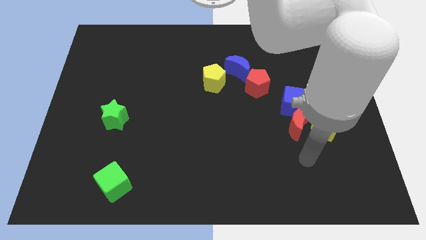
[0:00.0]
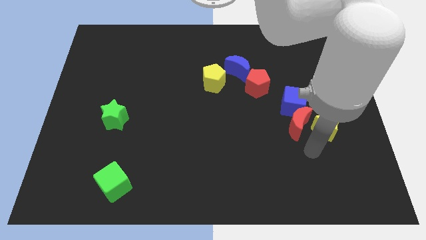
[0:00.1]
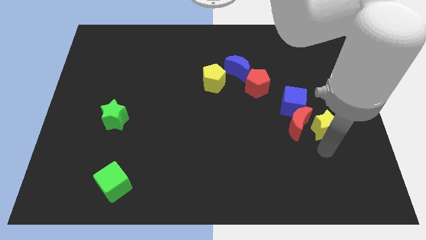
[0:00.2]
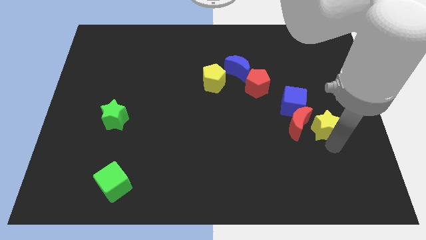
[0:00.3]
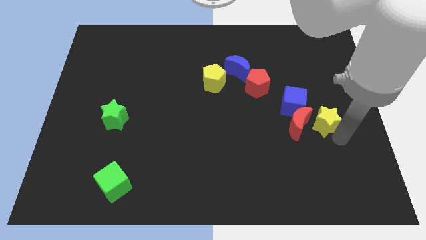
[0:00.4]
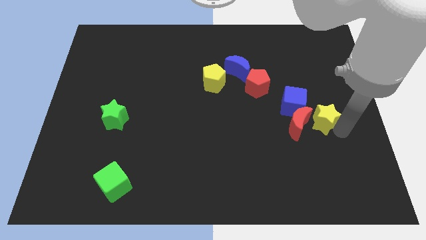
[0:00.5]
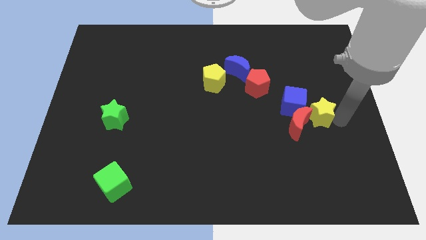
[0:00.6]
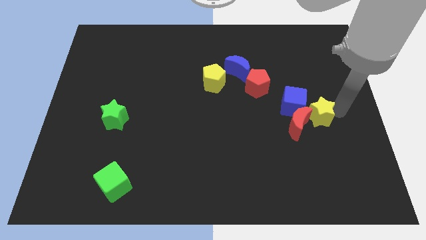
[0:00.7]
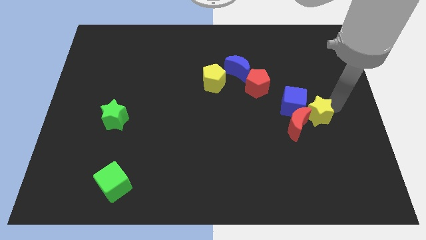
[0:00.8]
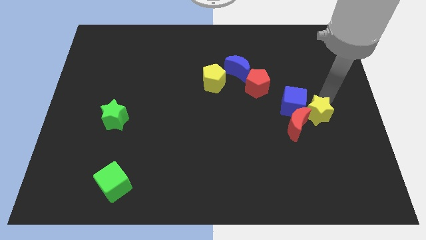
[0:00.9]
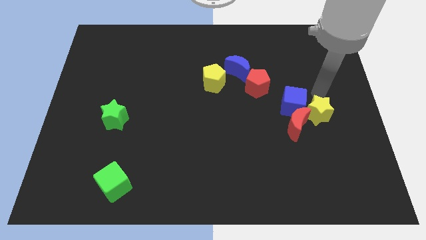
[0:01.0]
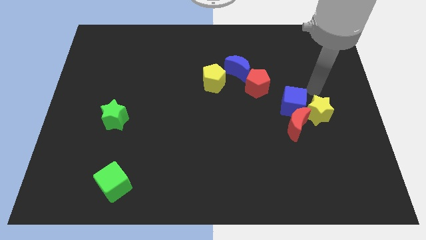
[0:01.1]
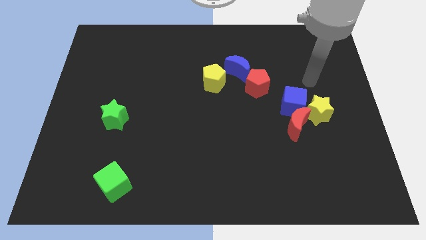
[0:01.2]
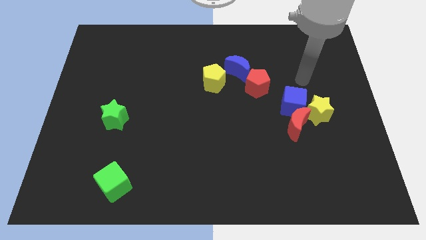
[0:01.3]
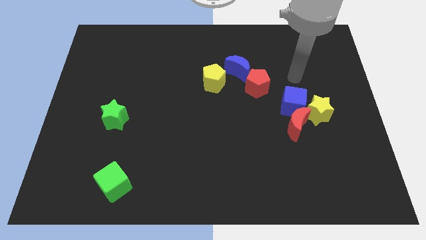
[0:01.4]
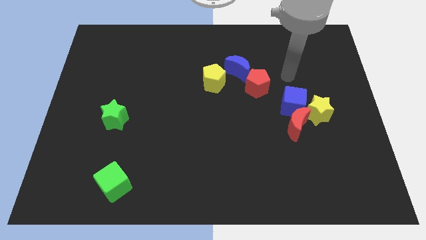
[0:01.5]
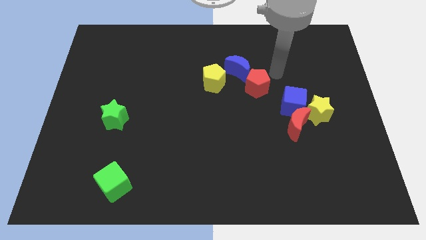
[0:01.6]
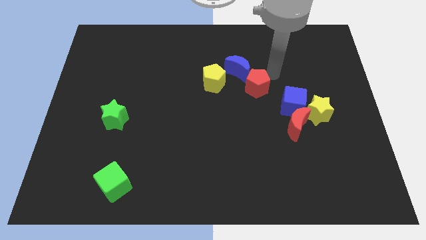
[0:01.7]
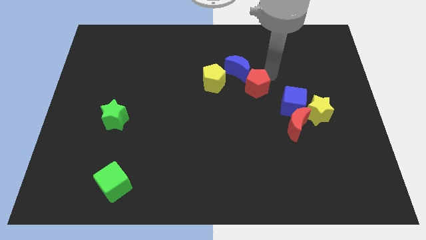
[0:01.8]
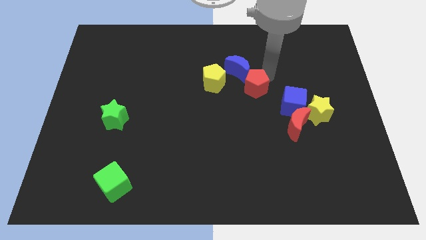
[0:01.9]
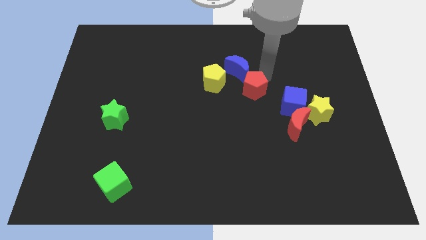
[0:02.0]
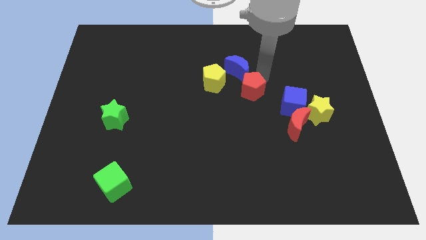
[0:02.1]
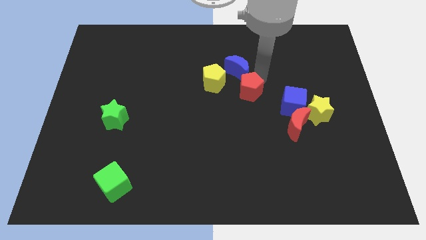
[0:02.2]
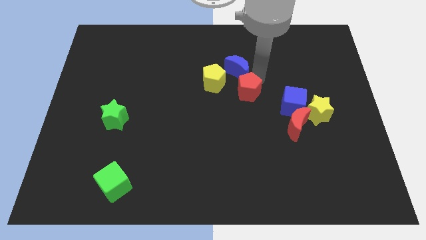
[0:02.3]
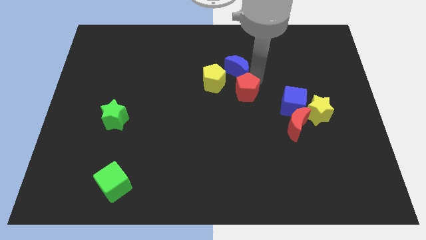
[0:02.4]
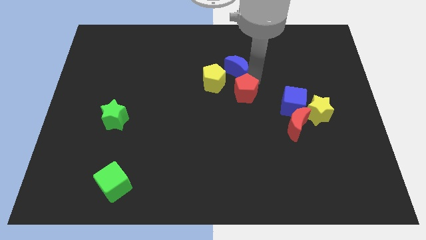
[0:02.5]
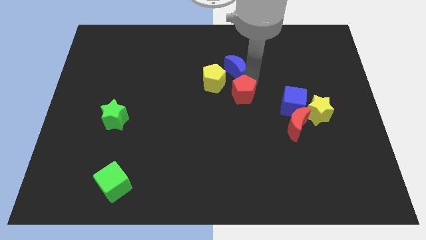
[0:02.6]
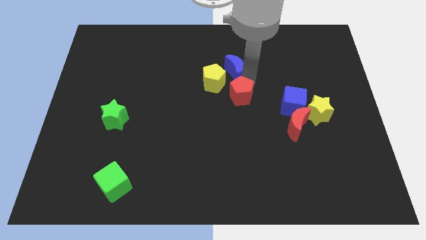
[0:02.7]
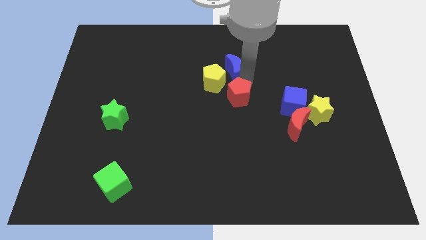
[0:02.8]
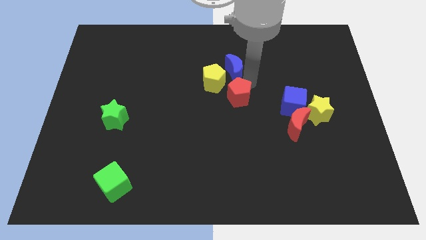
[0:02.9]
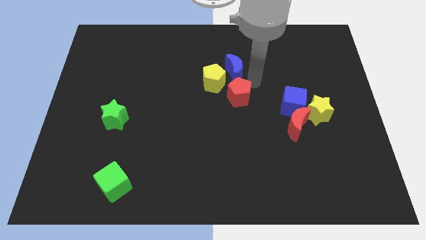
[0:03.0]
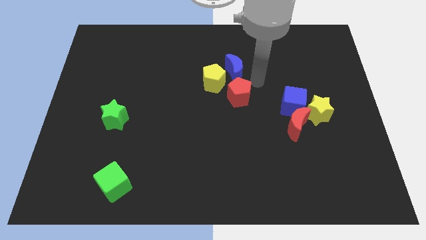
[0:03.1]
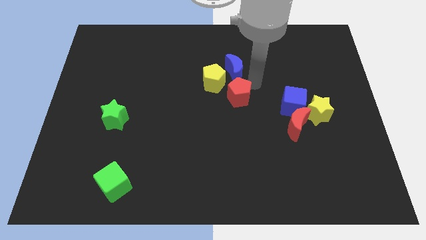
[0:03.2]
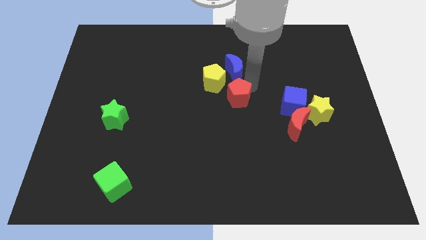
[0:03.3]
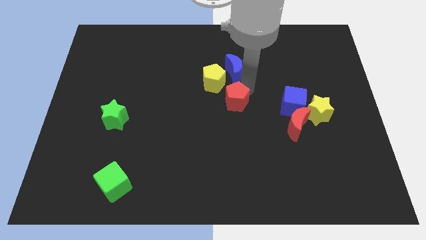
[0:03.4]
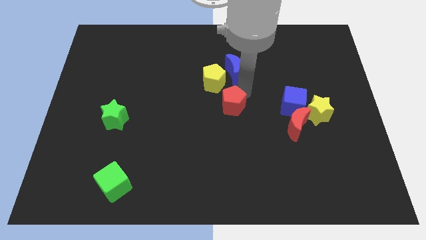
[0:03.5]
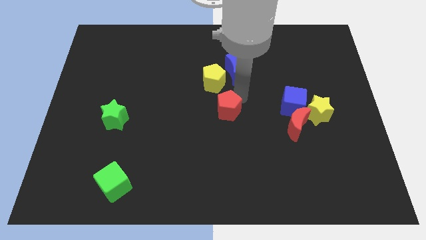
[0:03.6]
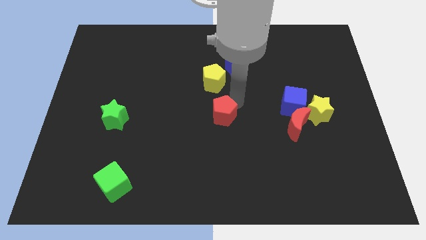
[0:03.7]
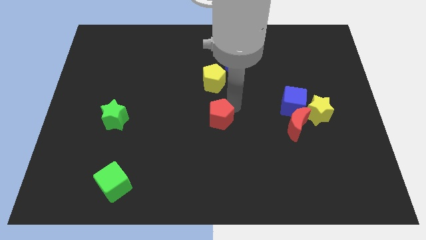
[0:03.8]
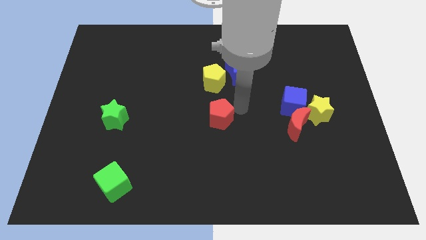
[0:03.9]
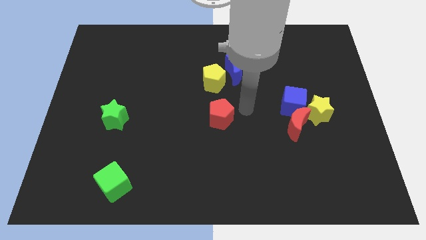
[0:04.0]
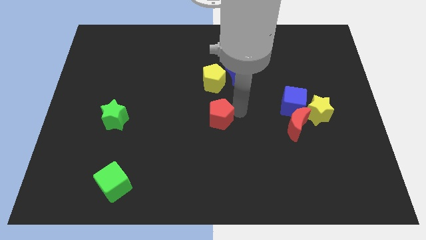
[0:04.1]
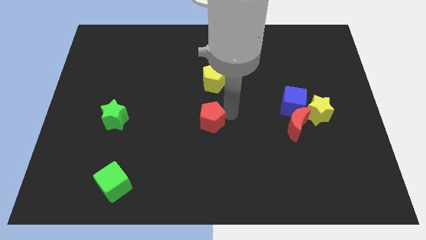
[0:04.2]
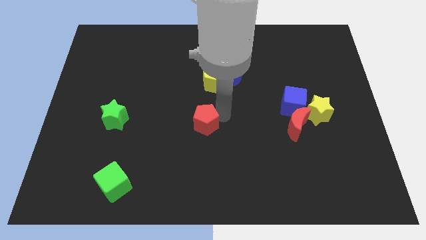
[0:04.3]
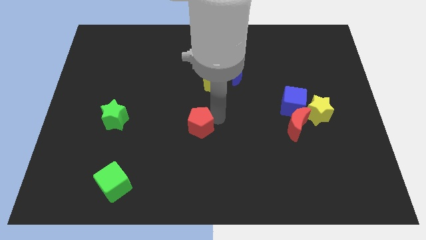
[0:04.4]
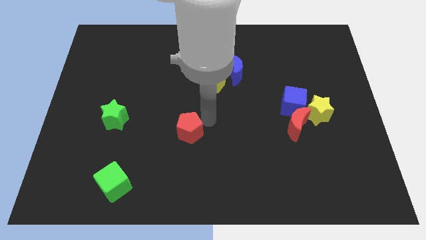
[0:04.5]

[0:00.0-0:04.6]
move the red pentagon down and left

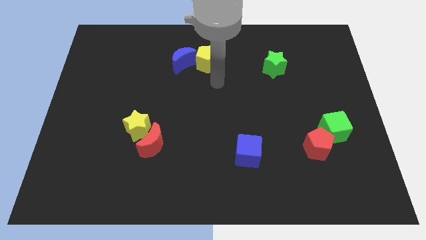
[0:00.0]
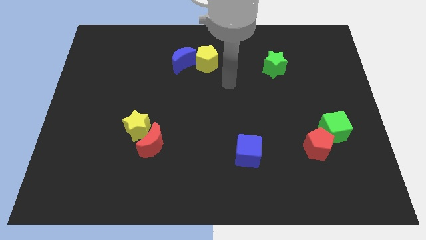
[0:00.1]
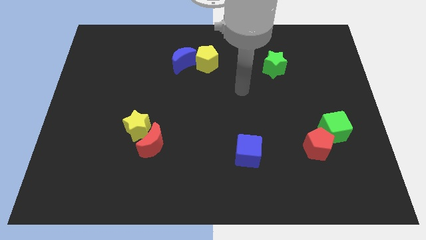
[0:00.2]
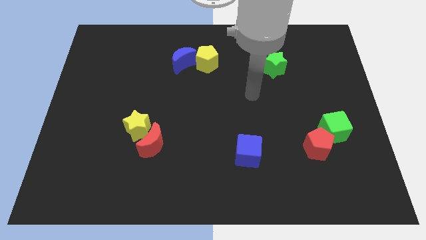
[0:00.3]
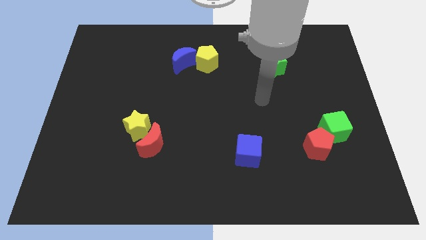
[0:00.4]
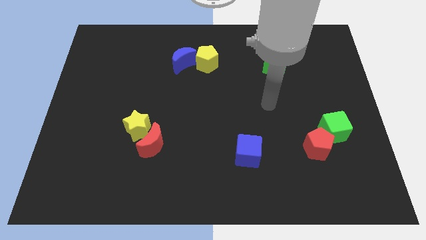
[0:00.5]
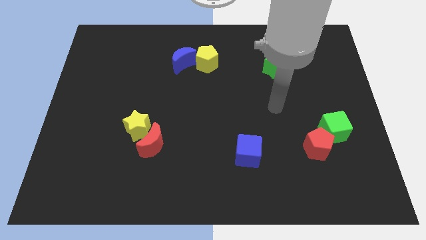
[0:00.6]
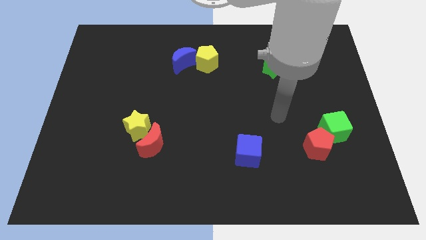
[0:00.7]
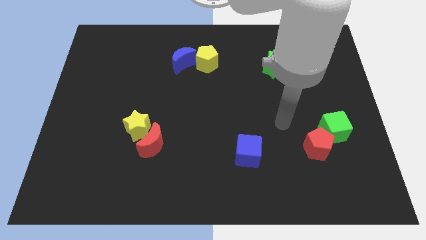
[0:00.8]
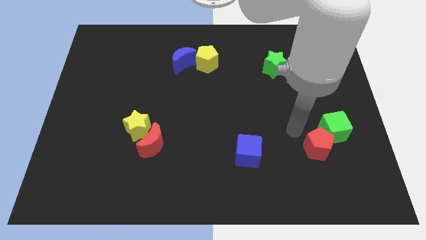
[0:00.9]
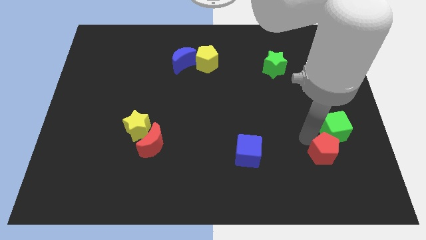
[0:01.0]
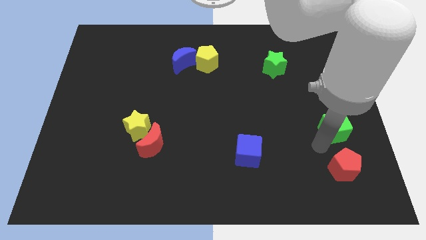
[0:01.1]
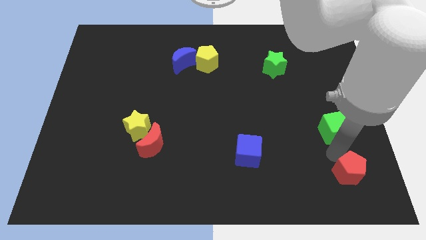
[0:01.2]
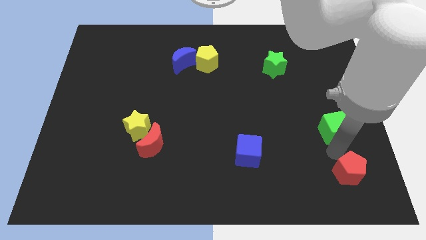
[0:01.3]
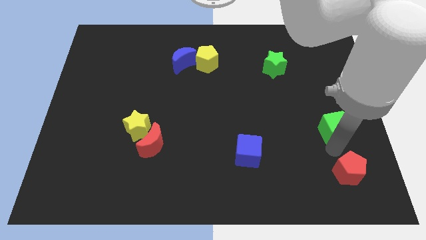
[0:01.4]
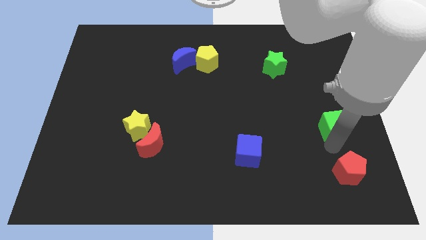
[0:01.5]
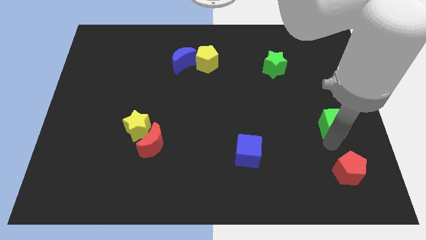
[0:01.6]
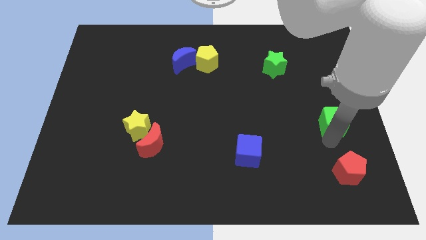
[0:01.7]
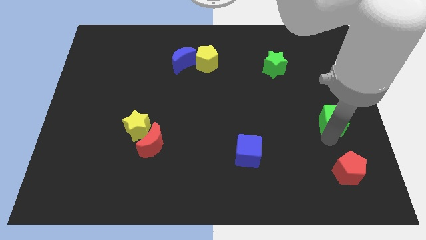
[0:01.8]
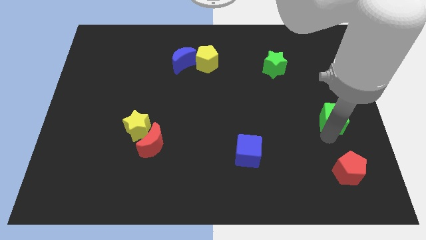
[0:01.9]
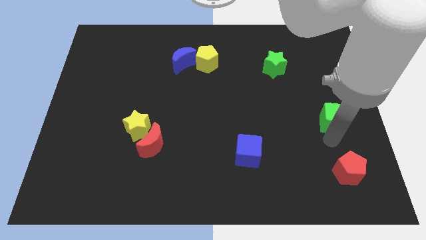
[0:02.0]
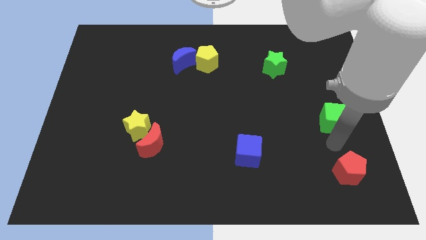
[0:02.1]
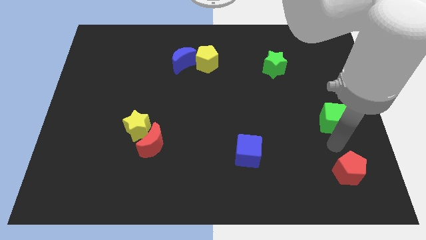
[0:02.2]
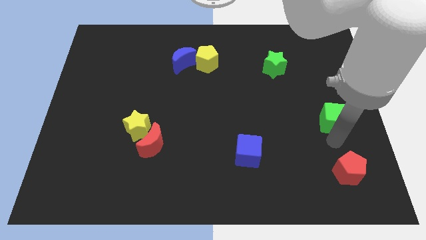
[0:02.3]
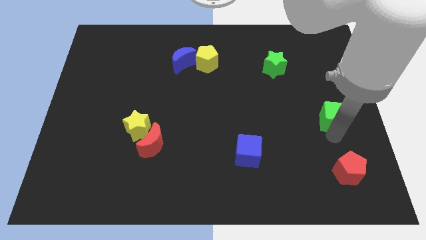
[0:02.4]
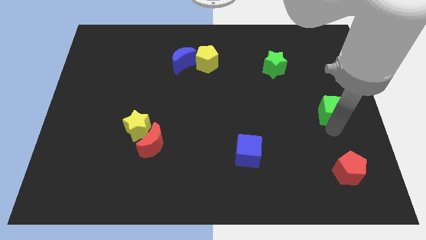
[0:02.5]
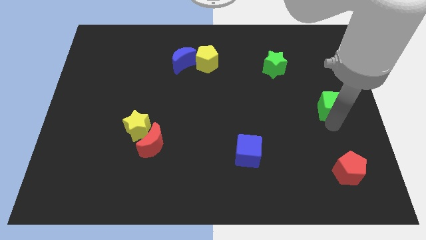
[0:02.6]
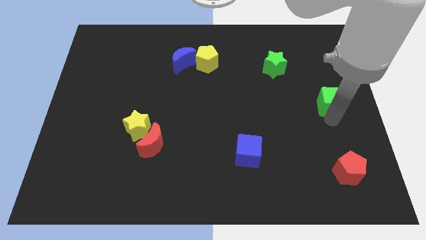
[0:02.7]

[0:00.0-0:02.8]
slightly push the green cube upwards

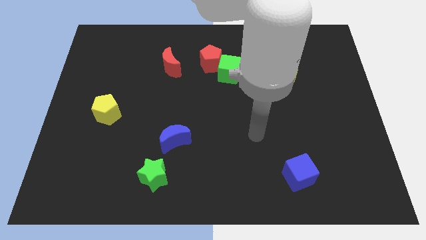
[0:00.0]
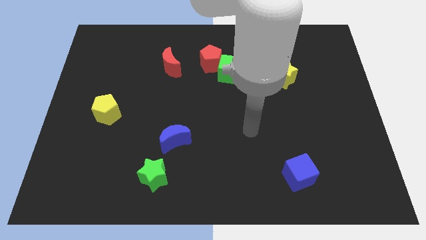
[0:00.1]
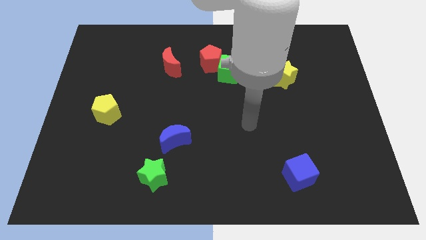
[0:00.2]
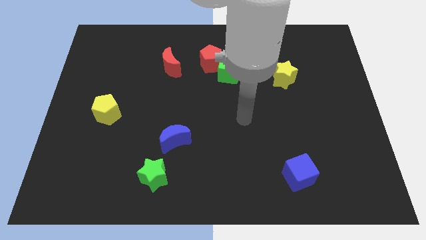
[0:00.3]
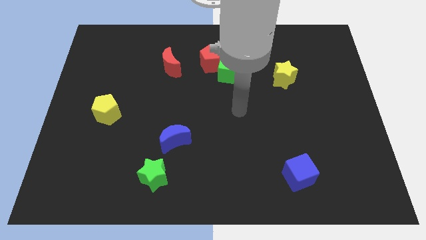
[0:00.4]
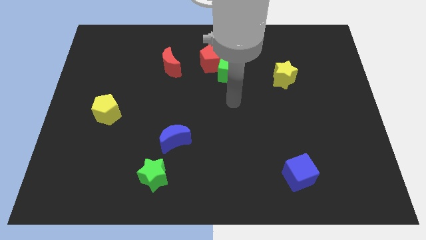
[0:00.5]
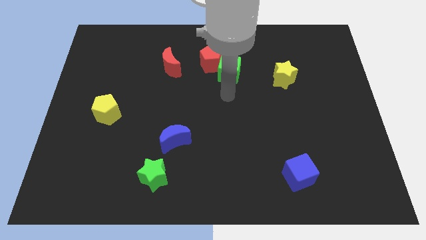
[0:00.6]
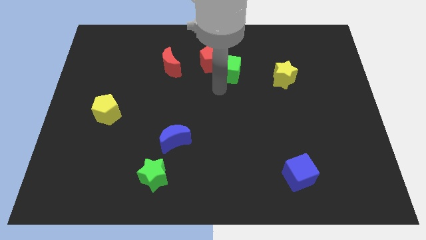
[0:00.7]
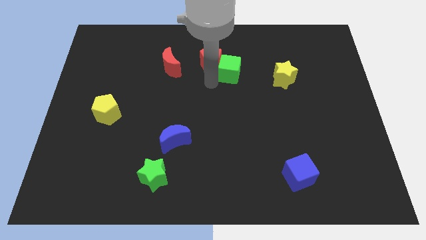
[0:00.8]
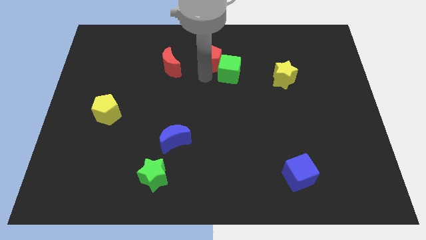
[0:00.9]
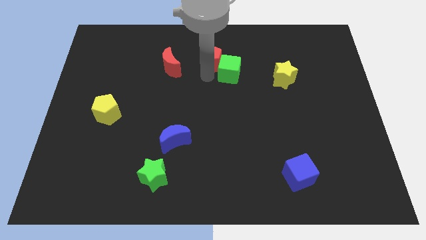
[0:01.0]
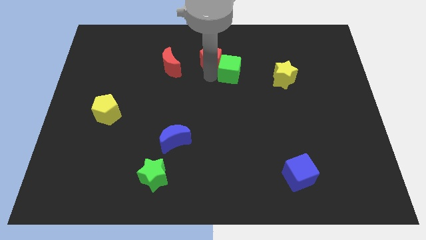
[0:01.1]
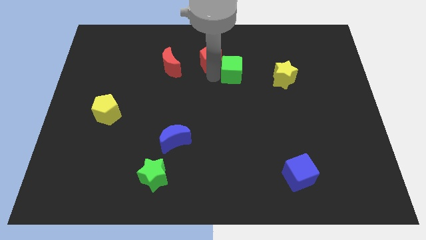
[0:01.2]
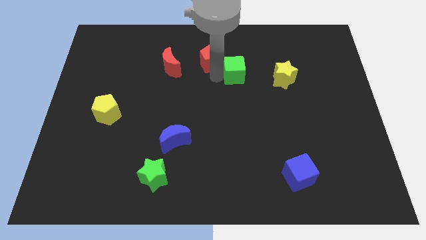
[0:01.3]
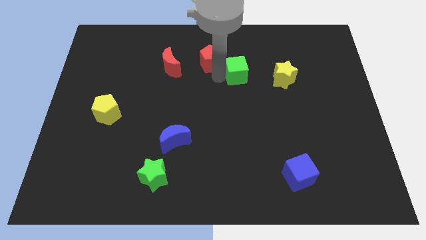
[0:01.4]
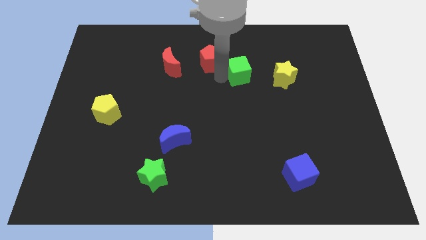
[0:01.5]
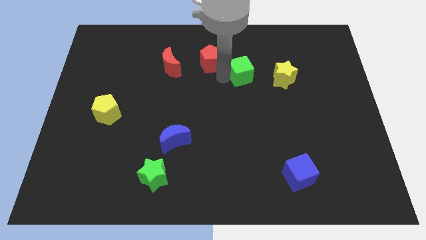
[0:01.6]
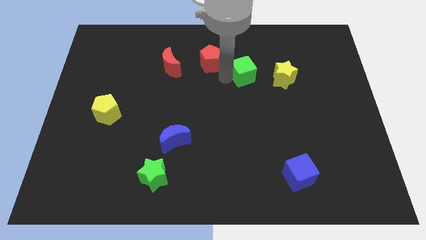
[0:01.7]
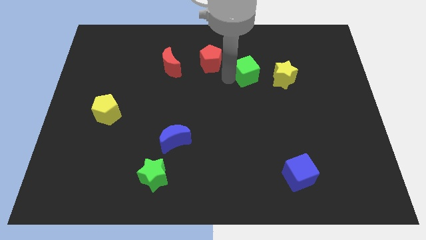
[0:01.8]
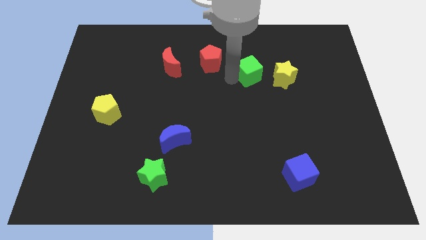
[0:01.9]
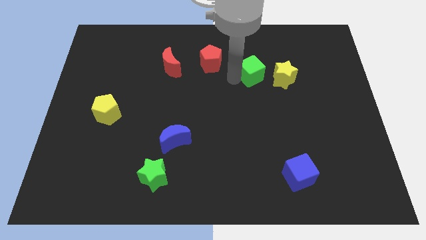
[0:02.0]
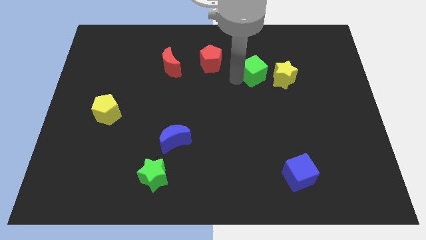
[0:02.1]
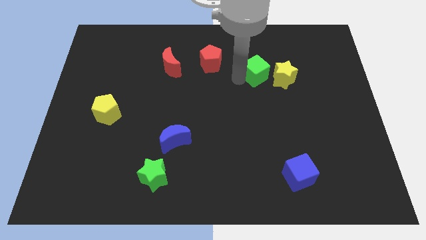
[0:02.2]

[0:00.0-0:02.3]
slide the green cube somewhat to the right
